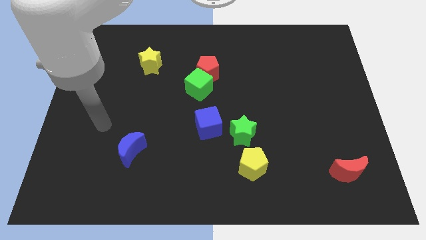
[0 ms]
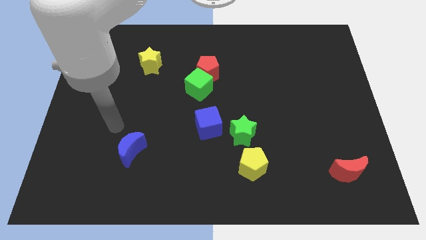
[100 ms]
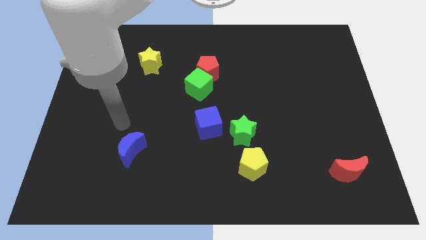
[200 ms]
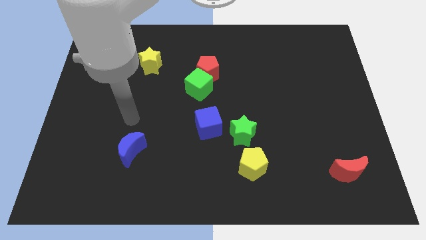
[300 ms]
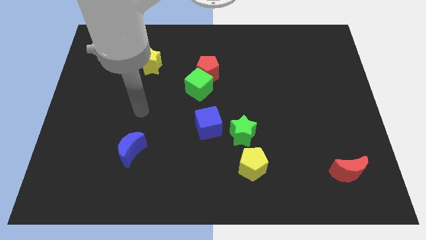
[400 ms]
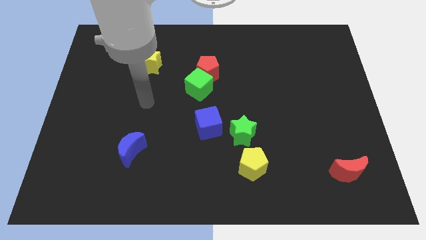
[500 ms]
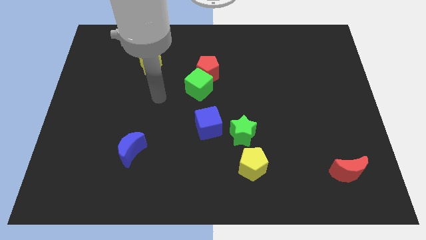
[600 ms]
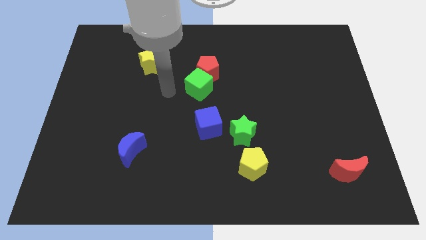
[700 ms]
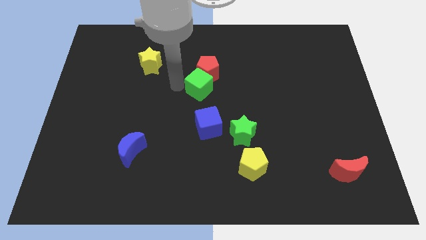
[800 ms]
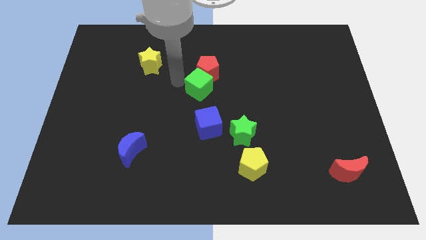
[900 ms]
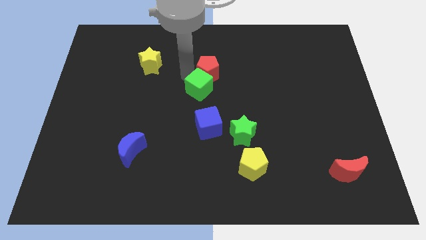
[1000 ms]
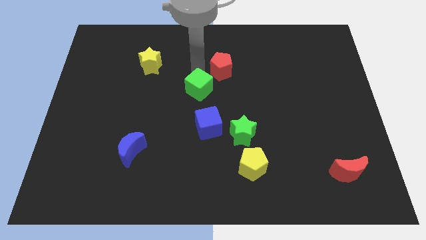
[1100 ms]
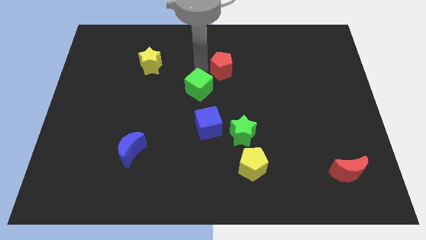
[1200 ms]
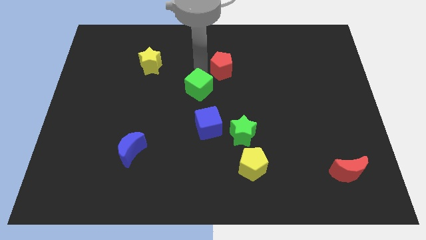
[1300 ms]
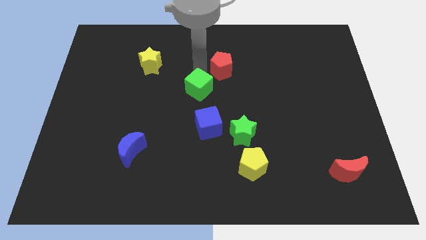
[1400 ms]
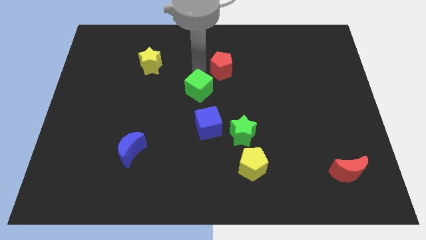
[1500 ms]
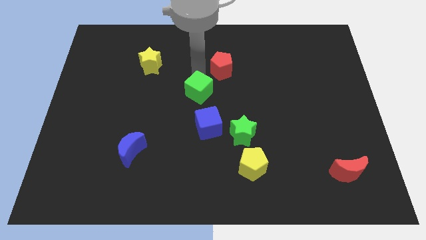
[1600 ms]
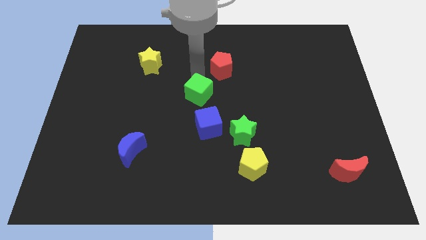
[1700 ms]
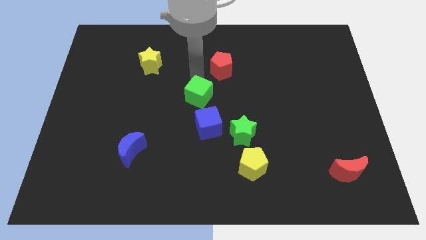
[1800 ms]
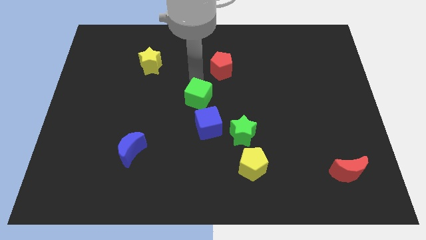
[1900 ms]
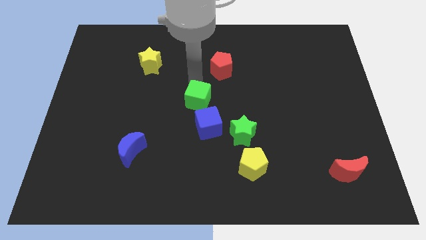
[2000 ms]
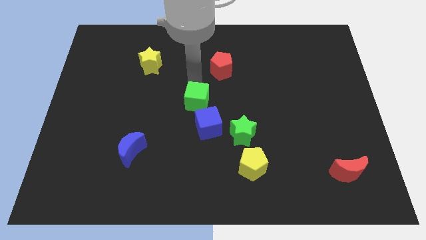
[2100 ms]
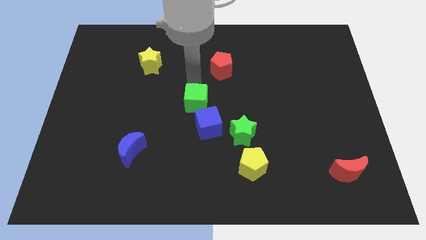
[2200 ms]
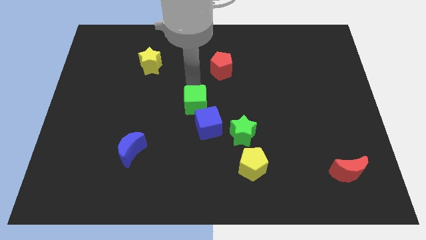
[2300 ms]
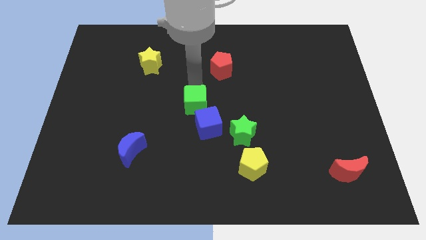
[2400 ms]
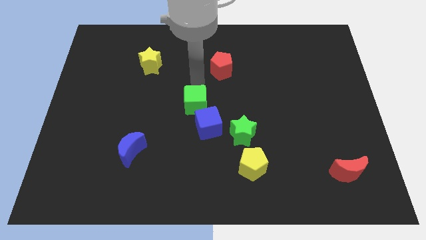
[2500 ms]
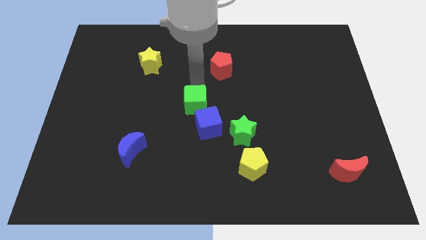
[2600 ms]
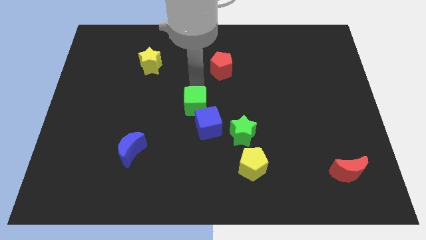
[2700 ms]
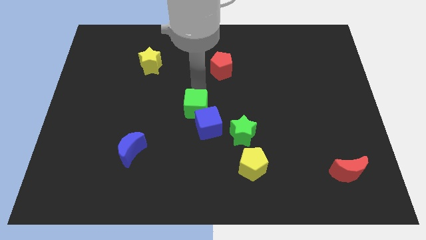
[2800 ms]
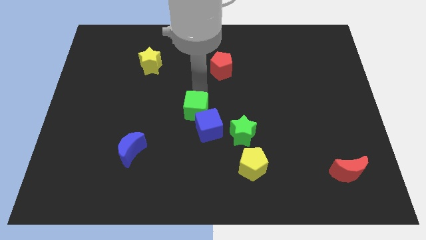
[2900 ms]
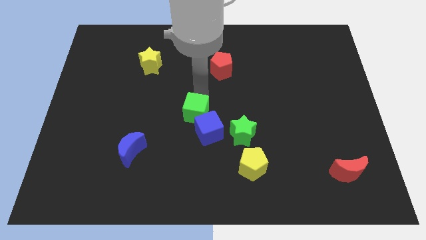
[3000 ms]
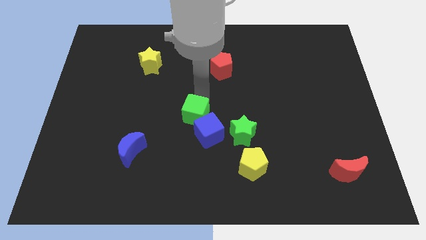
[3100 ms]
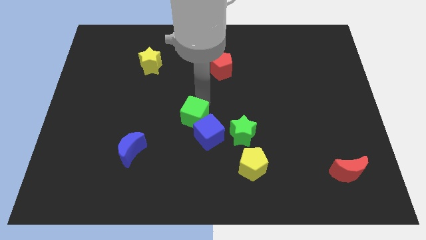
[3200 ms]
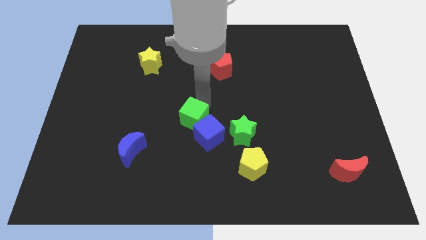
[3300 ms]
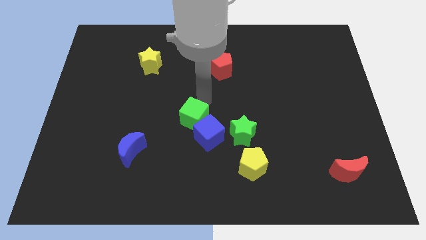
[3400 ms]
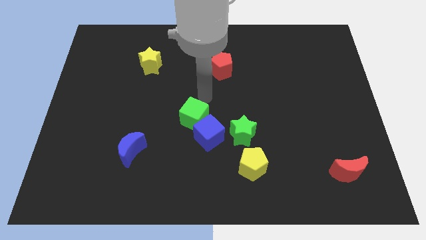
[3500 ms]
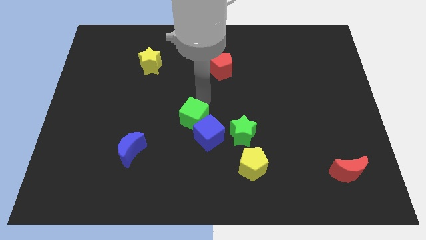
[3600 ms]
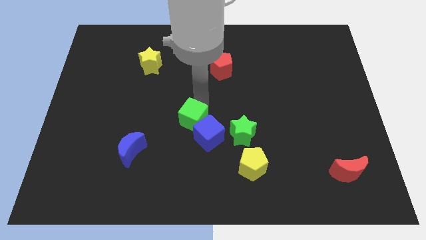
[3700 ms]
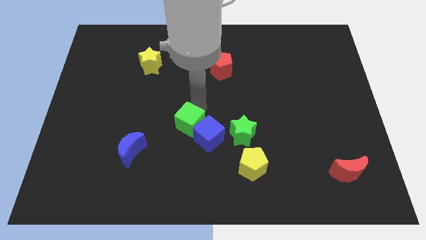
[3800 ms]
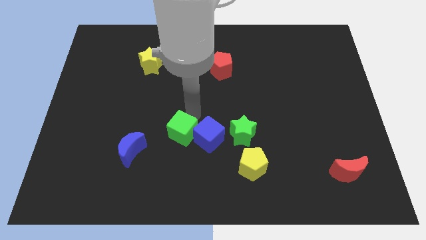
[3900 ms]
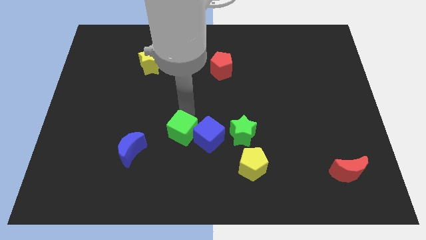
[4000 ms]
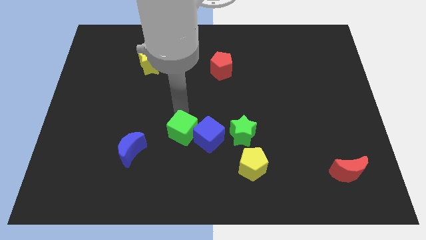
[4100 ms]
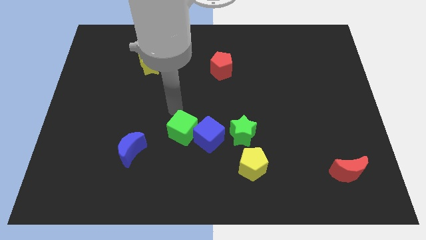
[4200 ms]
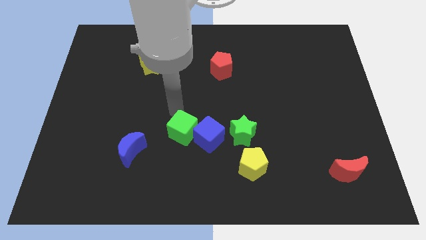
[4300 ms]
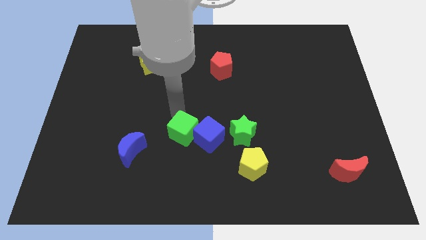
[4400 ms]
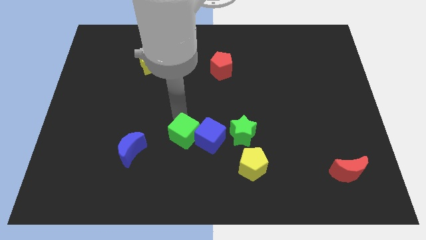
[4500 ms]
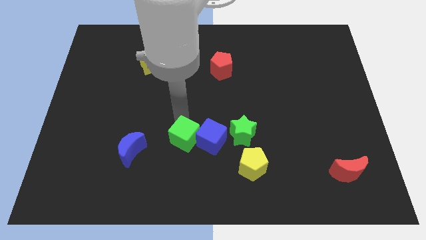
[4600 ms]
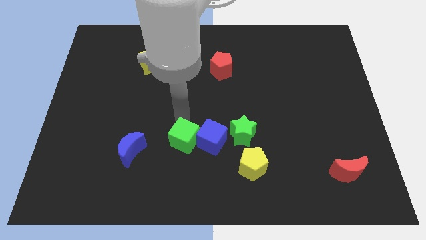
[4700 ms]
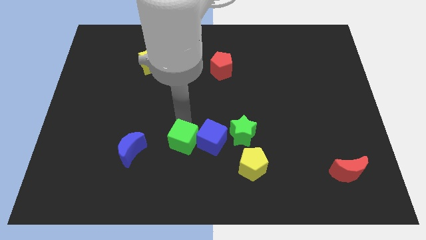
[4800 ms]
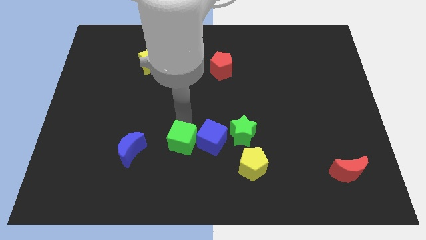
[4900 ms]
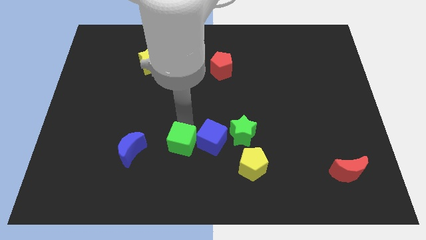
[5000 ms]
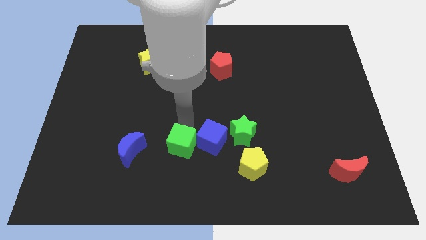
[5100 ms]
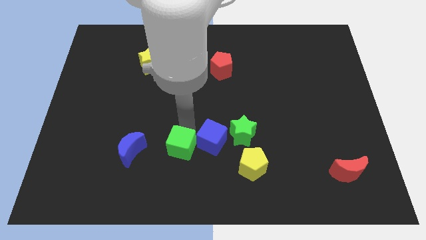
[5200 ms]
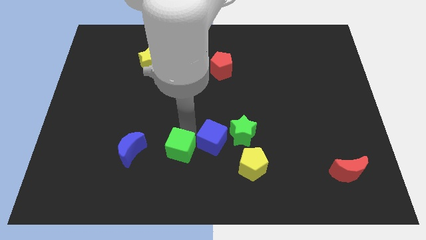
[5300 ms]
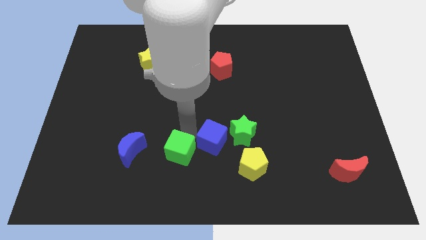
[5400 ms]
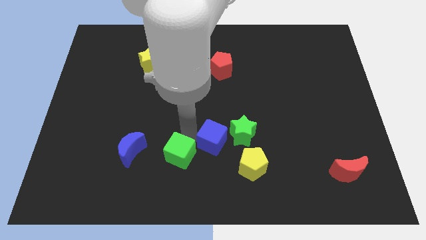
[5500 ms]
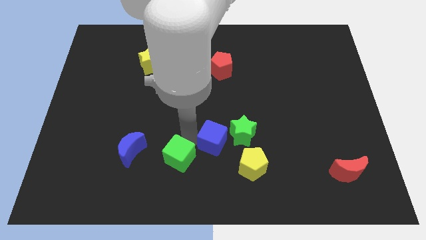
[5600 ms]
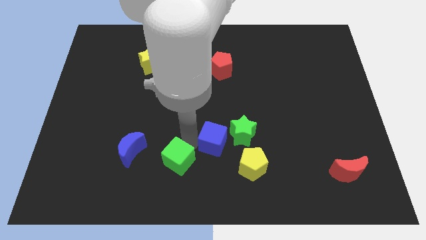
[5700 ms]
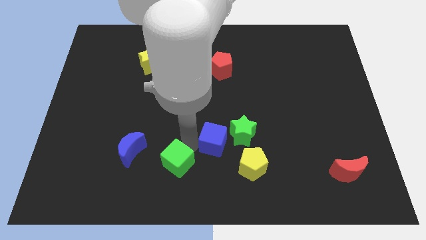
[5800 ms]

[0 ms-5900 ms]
push the green cube to the bottom side

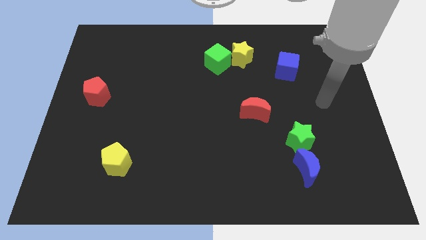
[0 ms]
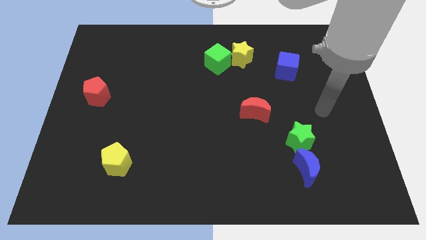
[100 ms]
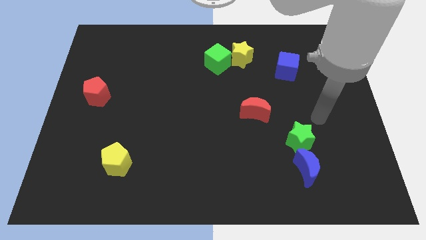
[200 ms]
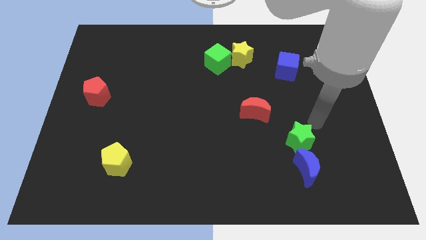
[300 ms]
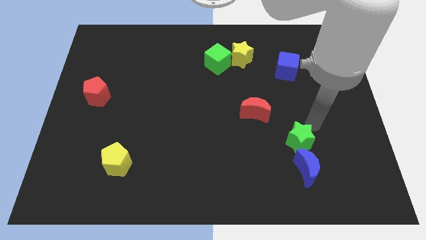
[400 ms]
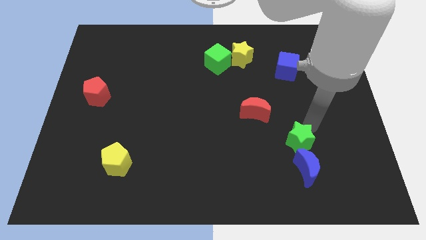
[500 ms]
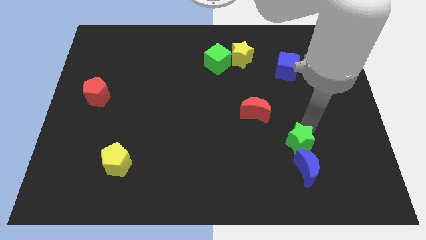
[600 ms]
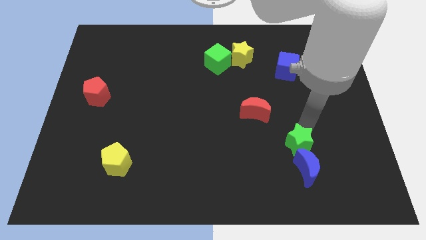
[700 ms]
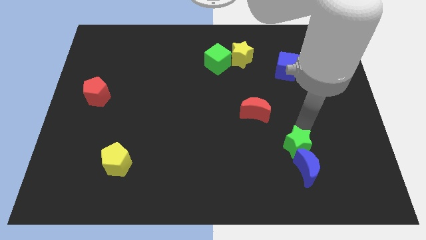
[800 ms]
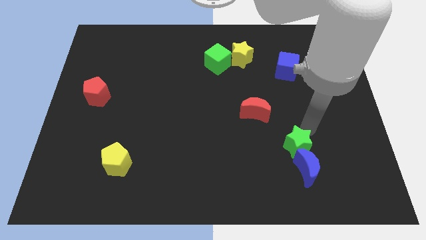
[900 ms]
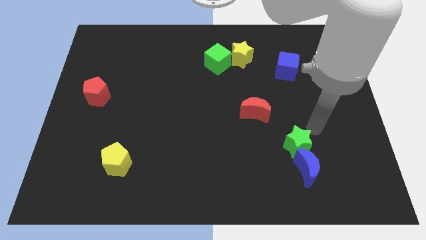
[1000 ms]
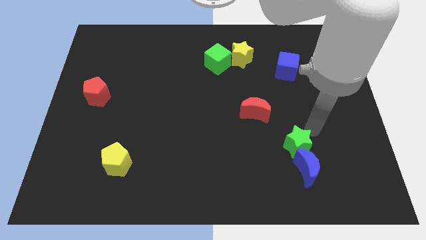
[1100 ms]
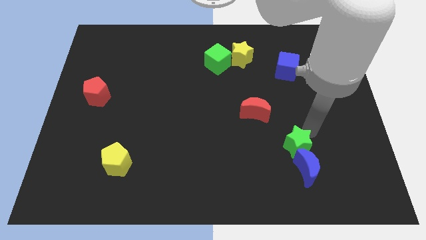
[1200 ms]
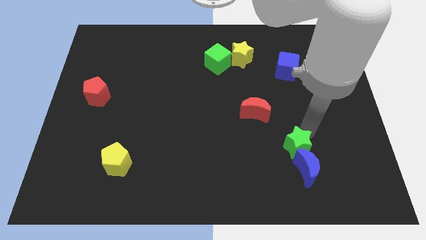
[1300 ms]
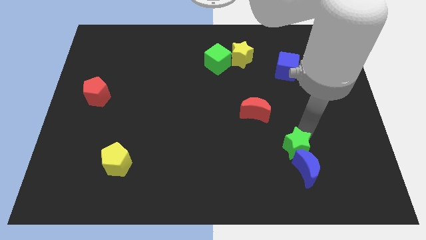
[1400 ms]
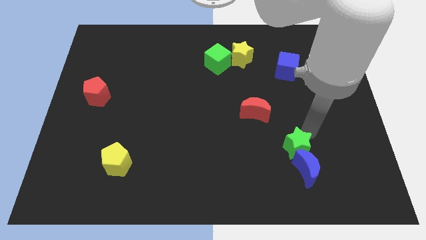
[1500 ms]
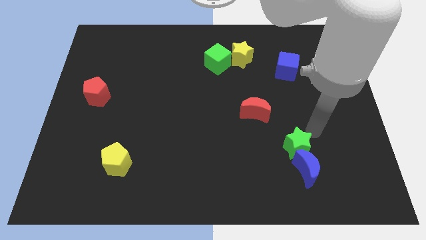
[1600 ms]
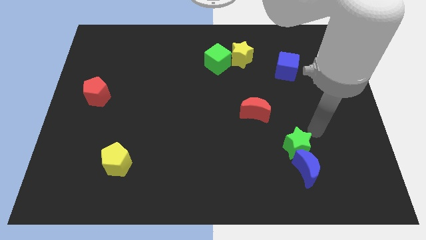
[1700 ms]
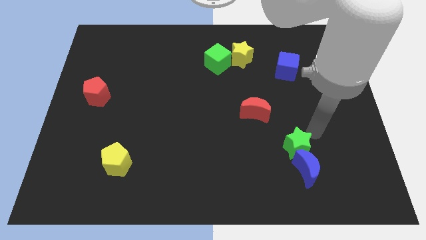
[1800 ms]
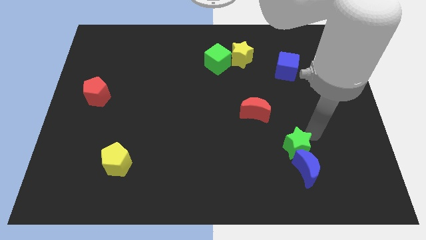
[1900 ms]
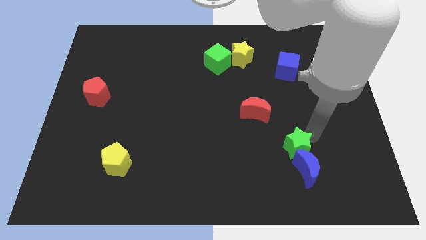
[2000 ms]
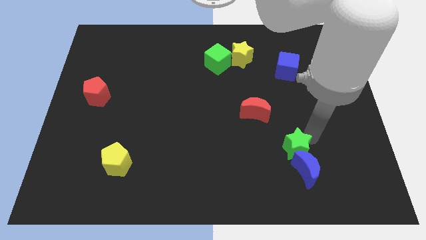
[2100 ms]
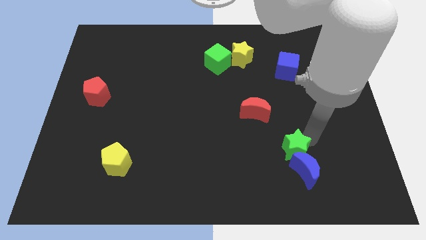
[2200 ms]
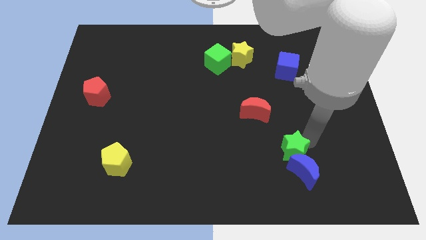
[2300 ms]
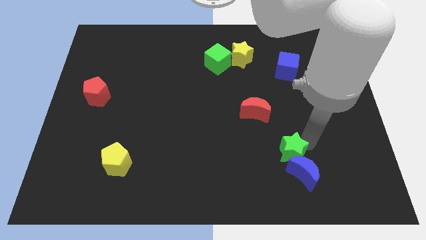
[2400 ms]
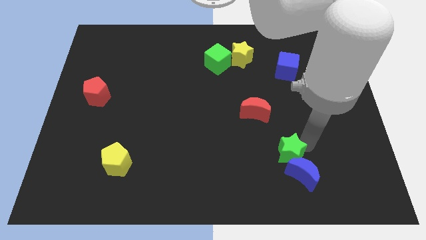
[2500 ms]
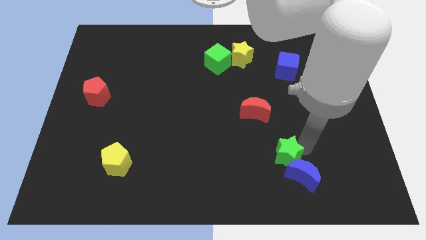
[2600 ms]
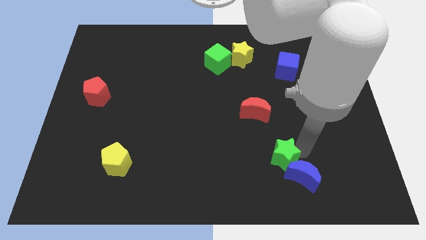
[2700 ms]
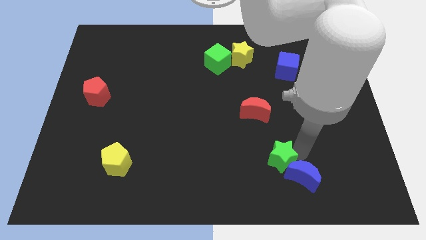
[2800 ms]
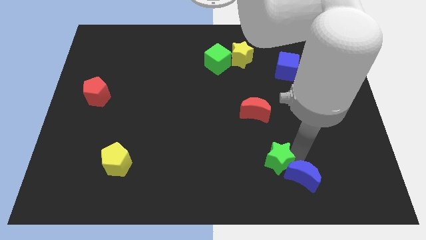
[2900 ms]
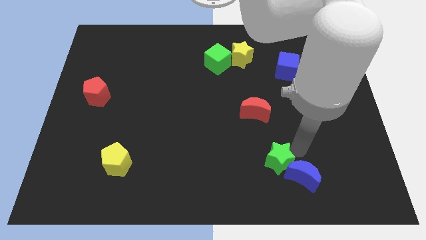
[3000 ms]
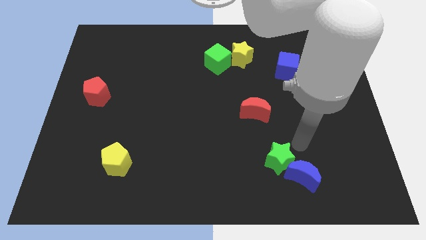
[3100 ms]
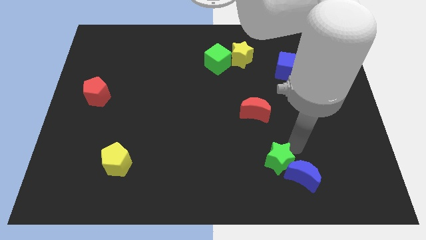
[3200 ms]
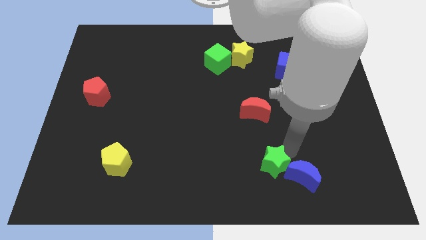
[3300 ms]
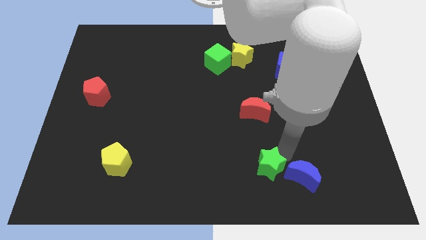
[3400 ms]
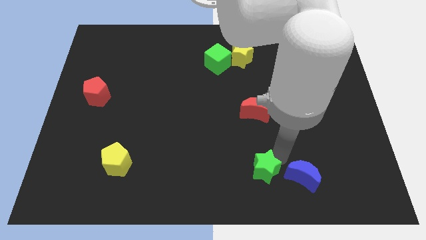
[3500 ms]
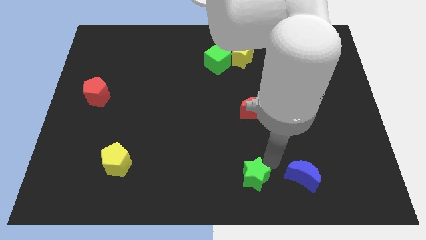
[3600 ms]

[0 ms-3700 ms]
push the green star to the bottom
